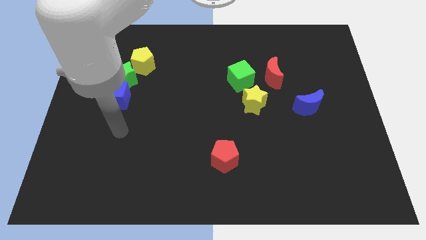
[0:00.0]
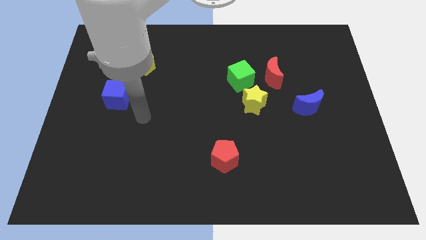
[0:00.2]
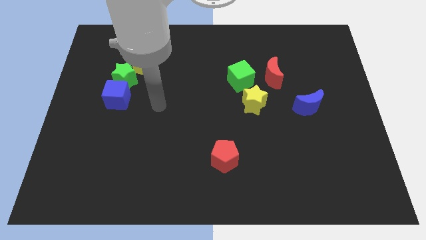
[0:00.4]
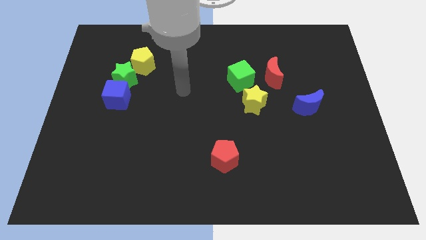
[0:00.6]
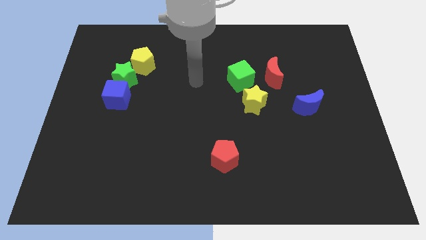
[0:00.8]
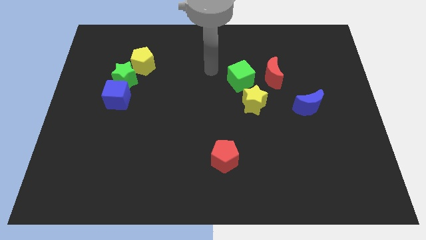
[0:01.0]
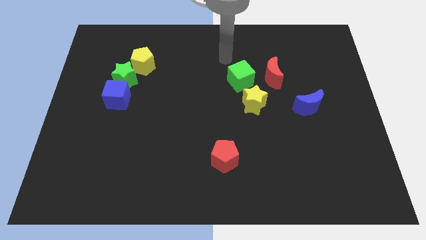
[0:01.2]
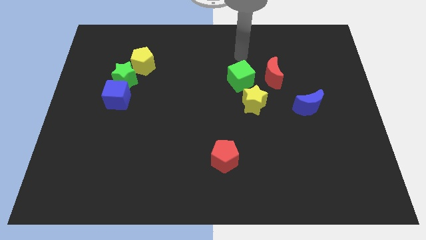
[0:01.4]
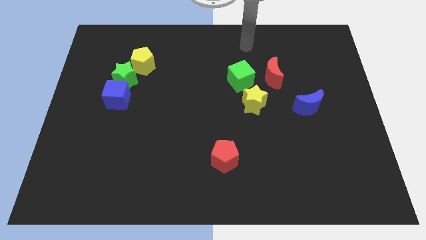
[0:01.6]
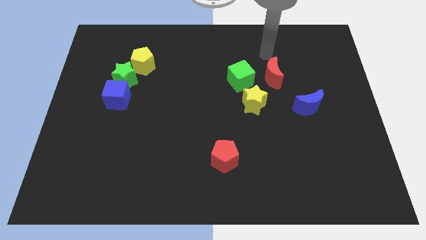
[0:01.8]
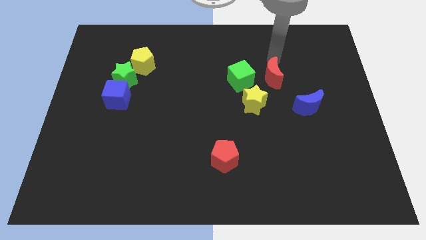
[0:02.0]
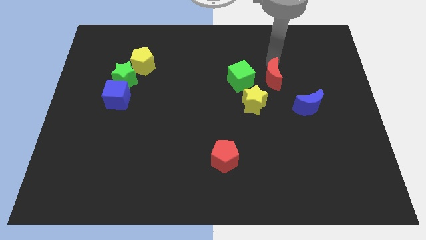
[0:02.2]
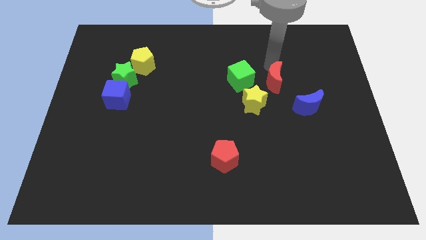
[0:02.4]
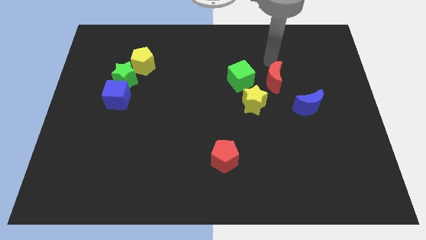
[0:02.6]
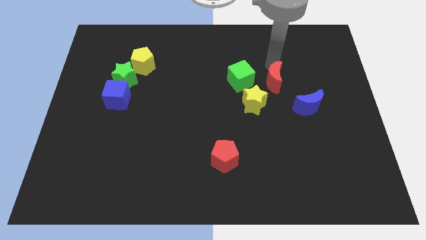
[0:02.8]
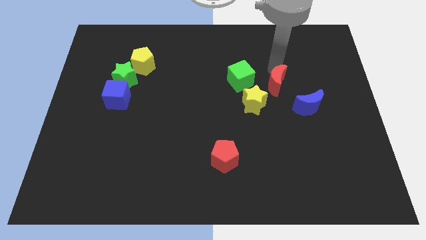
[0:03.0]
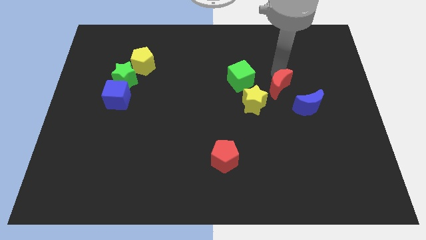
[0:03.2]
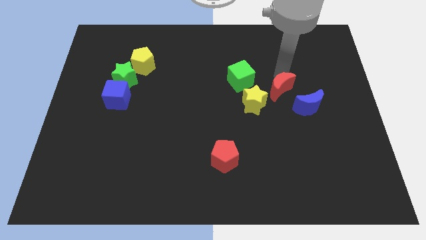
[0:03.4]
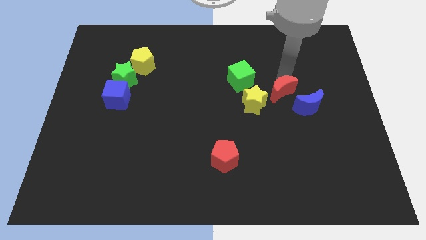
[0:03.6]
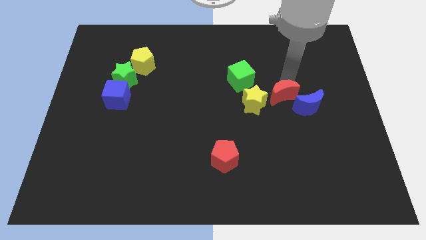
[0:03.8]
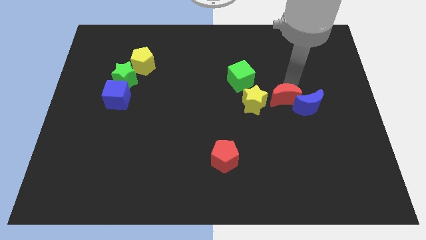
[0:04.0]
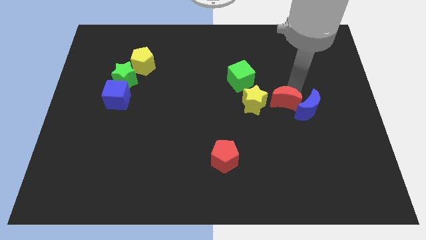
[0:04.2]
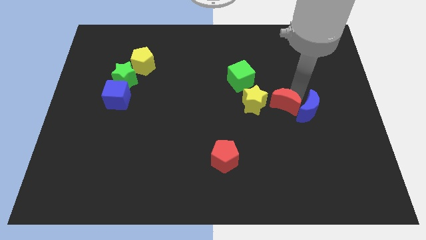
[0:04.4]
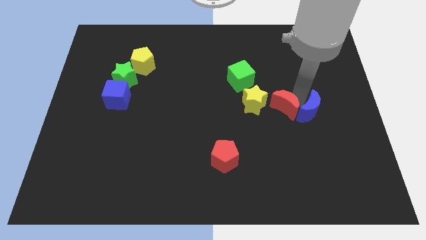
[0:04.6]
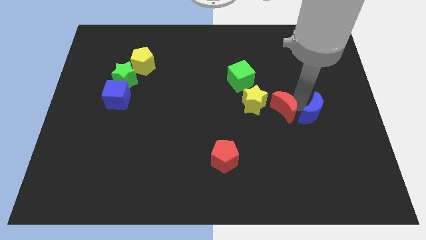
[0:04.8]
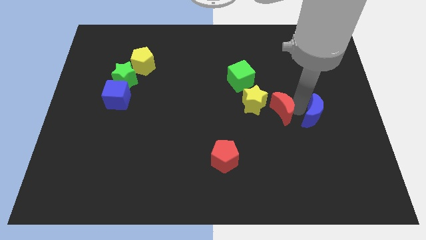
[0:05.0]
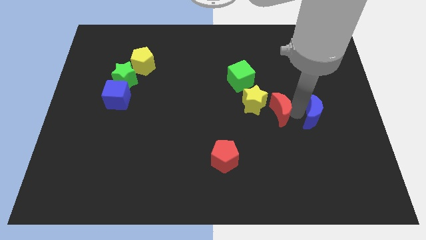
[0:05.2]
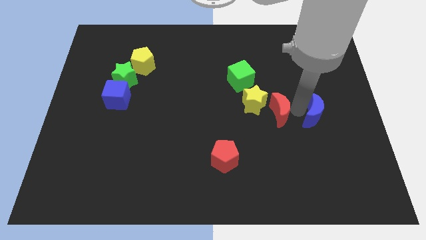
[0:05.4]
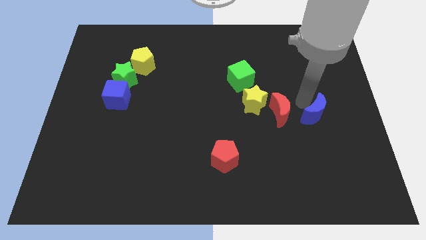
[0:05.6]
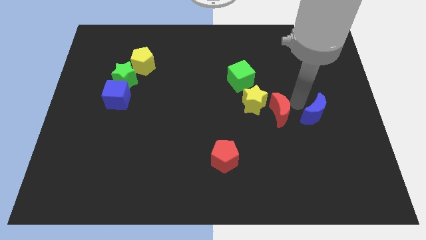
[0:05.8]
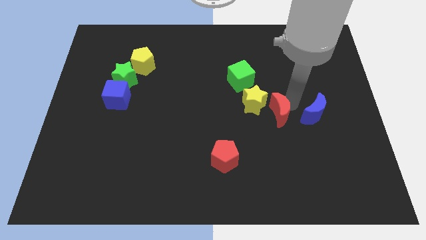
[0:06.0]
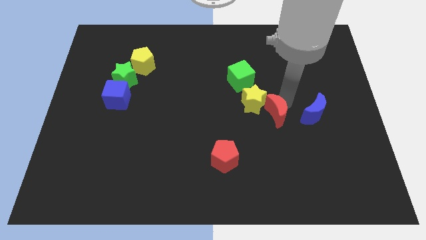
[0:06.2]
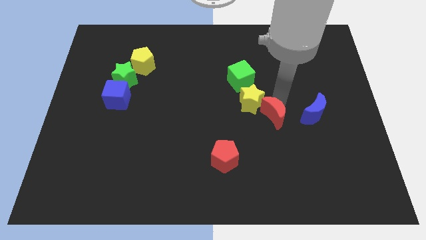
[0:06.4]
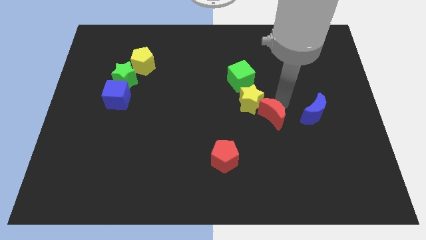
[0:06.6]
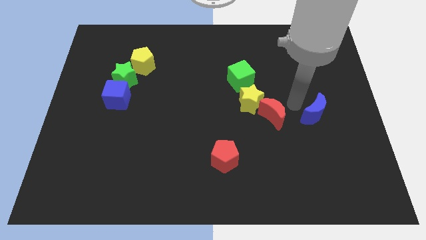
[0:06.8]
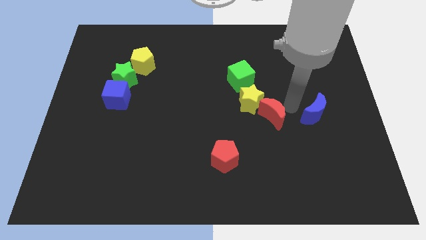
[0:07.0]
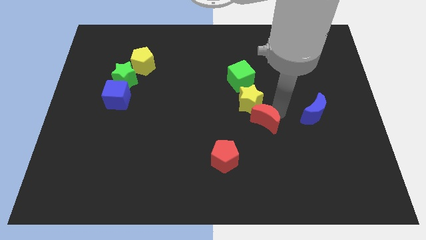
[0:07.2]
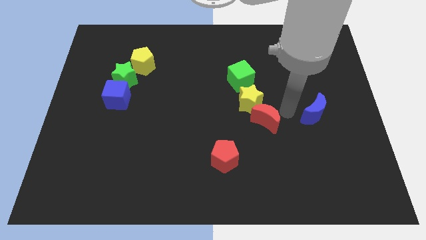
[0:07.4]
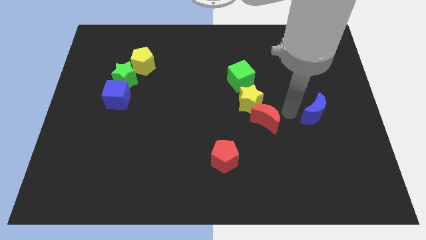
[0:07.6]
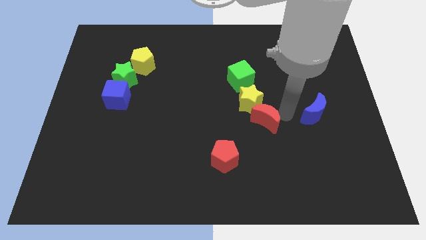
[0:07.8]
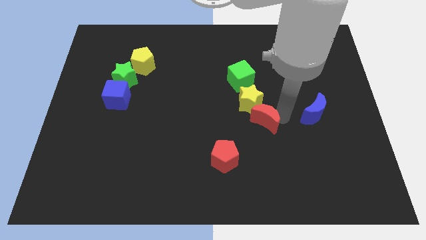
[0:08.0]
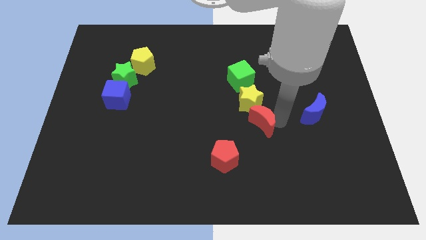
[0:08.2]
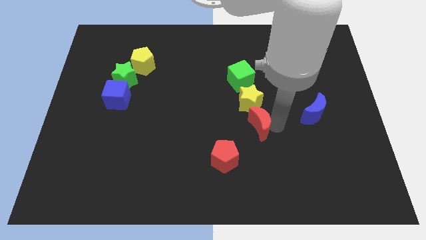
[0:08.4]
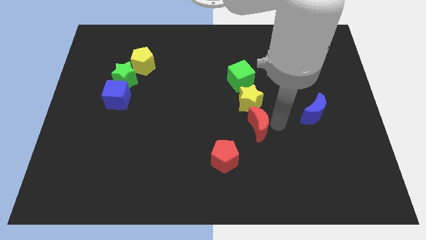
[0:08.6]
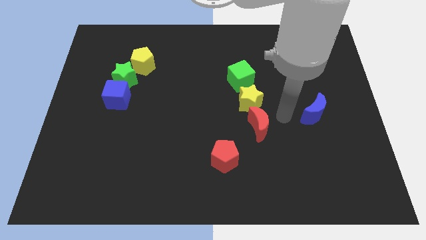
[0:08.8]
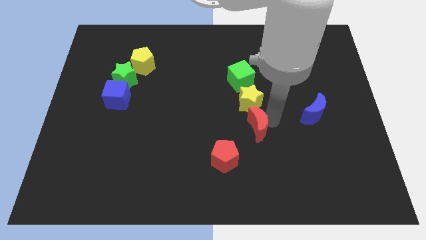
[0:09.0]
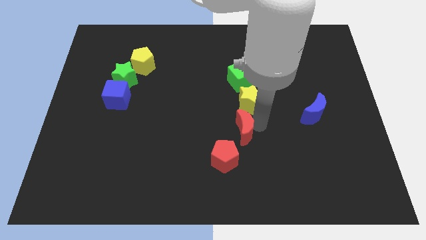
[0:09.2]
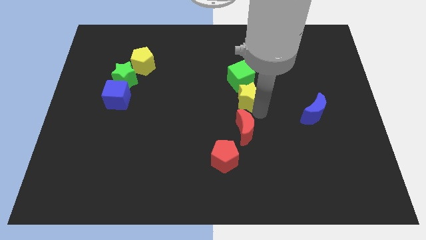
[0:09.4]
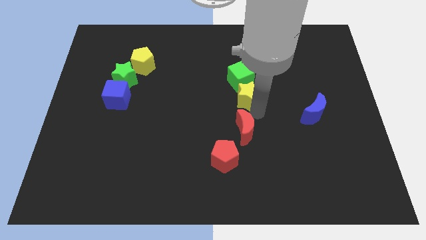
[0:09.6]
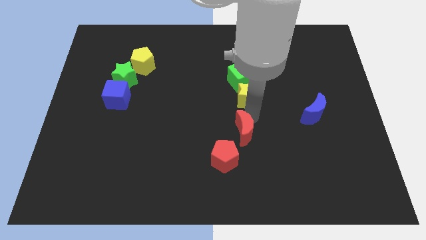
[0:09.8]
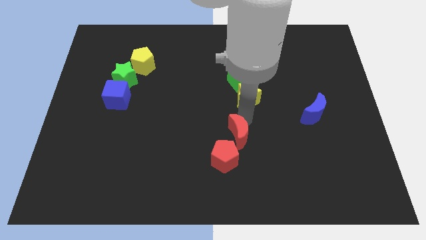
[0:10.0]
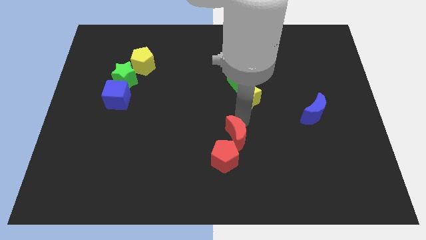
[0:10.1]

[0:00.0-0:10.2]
put the red moon to the red pentagon

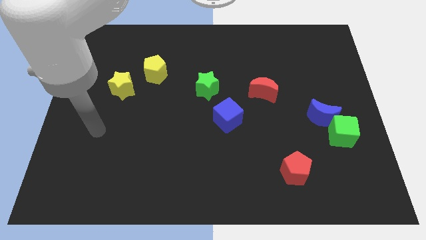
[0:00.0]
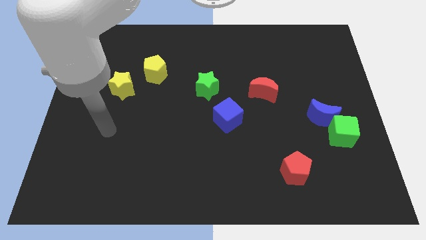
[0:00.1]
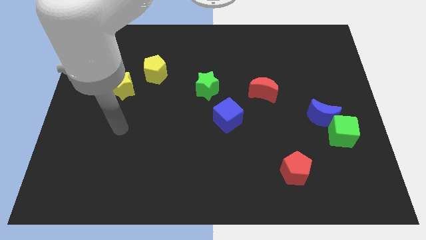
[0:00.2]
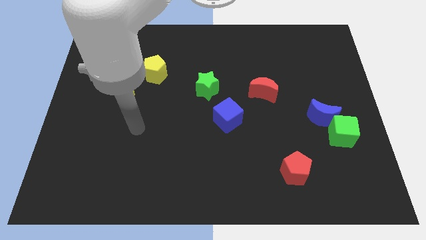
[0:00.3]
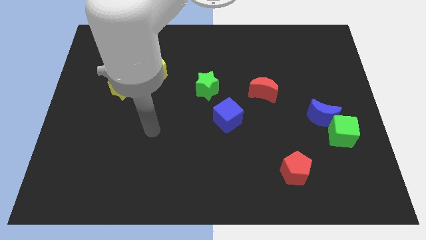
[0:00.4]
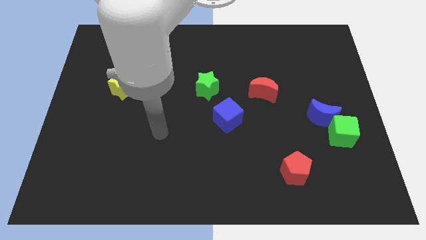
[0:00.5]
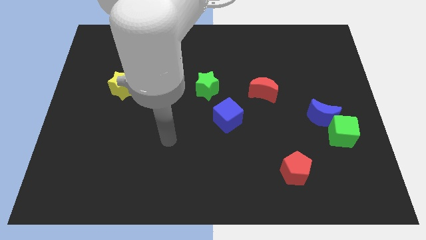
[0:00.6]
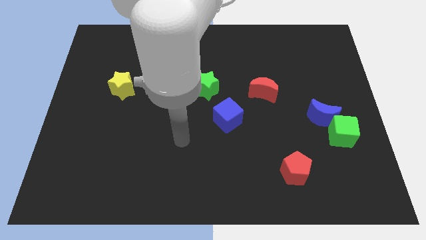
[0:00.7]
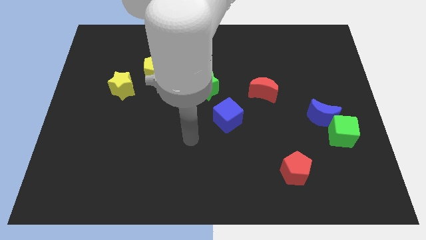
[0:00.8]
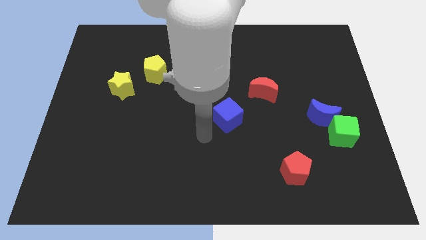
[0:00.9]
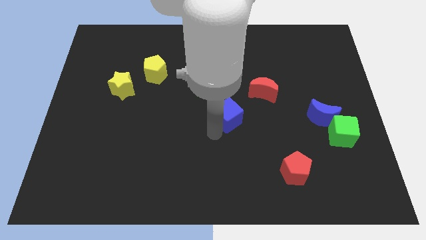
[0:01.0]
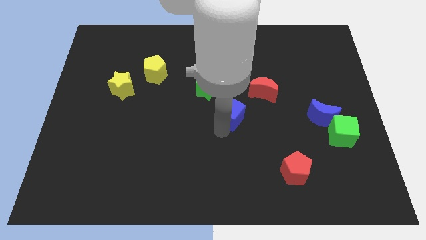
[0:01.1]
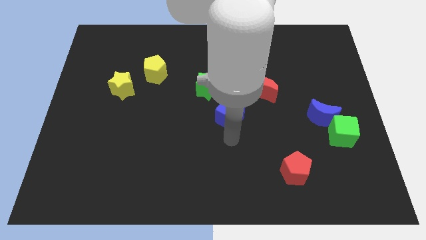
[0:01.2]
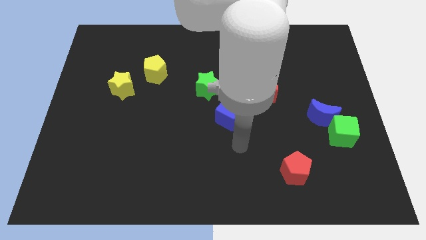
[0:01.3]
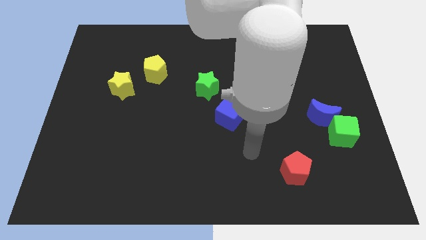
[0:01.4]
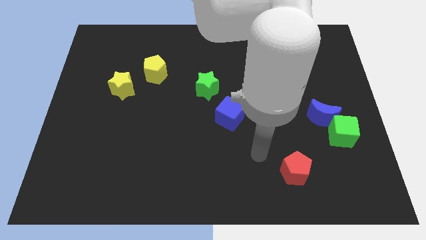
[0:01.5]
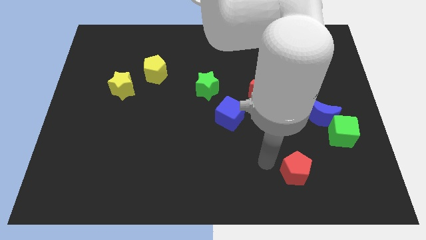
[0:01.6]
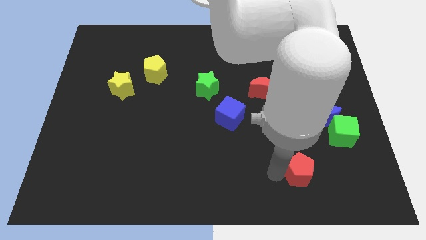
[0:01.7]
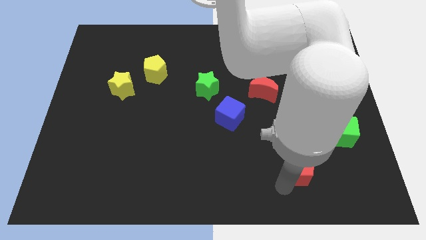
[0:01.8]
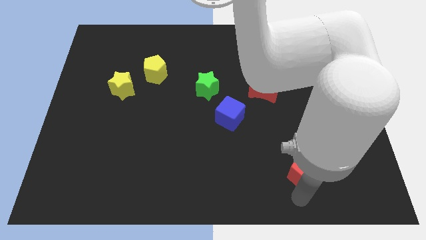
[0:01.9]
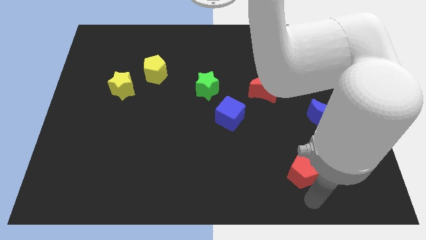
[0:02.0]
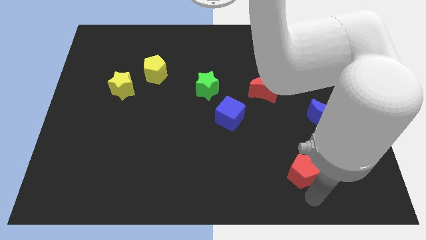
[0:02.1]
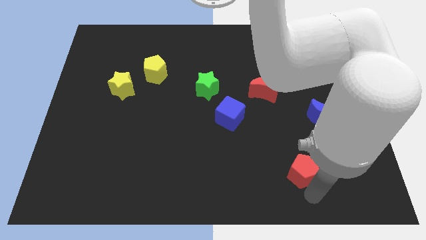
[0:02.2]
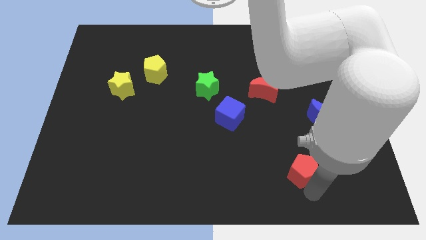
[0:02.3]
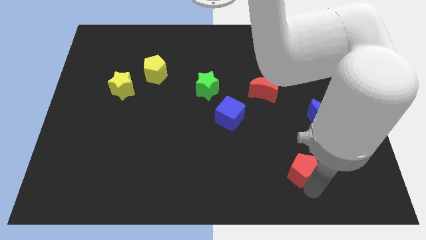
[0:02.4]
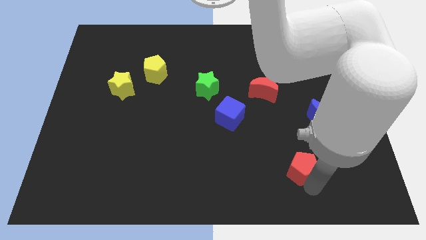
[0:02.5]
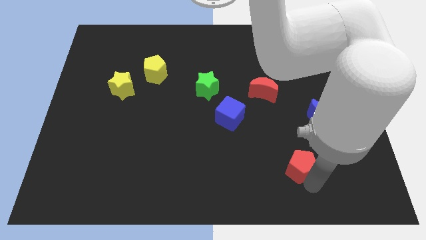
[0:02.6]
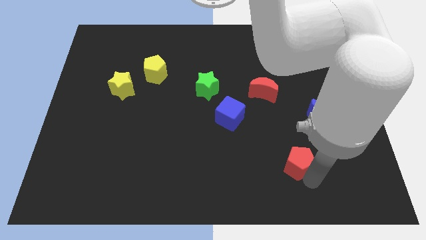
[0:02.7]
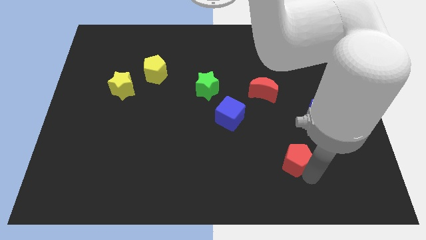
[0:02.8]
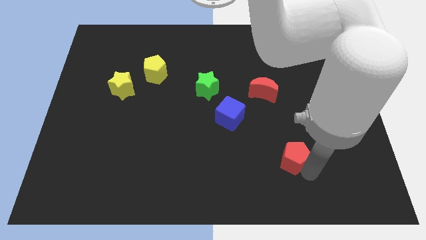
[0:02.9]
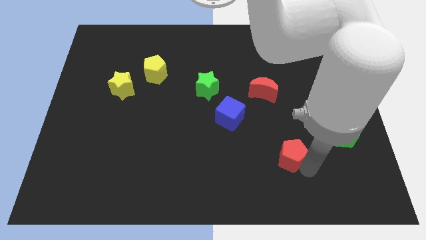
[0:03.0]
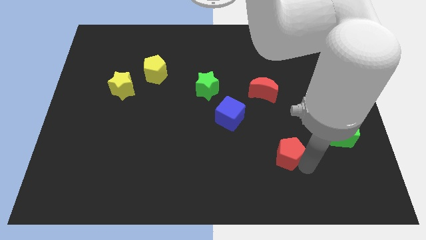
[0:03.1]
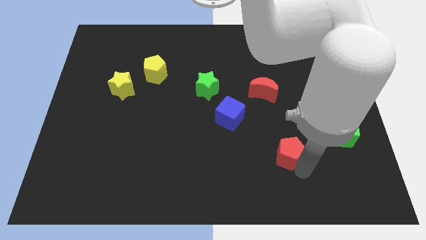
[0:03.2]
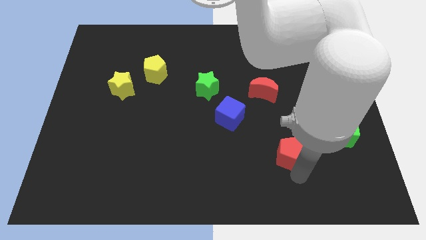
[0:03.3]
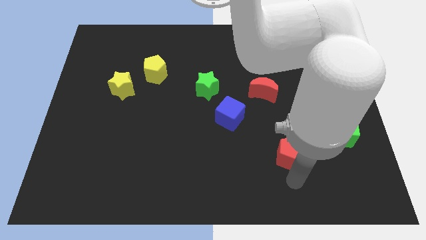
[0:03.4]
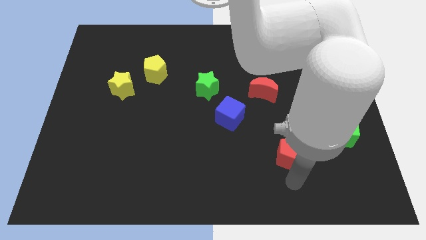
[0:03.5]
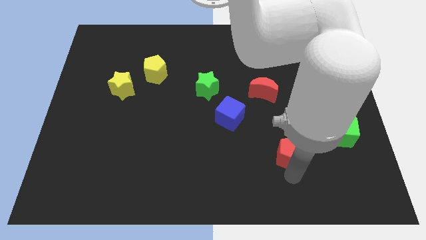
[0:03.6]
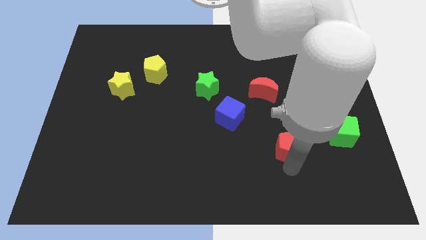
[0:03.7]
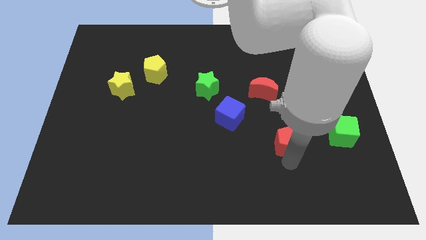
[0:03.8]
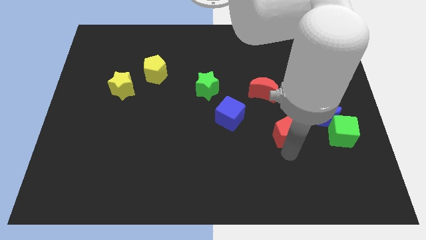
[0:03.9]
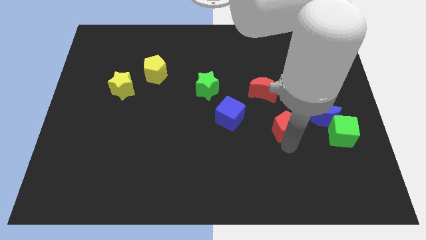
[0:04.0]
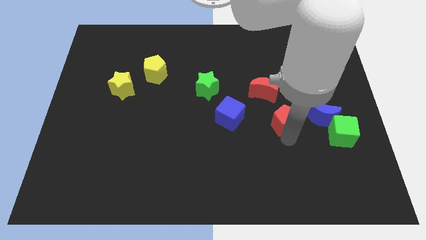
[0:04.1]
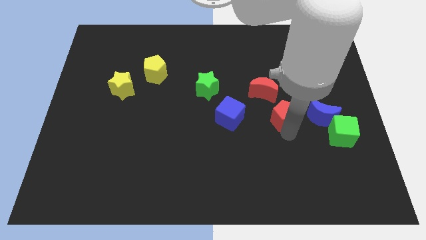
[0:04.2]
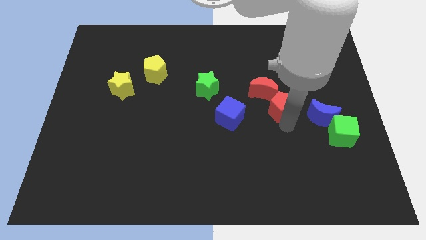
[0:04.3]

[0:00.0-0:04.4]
push the red pentagon next to the red moon
